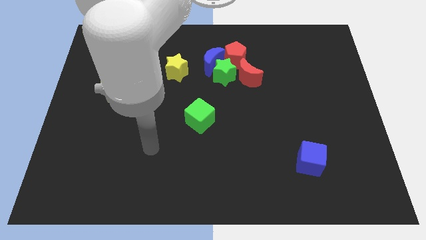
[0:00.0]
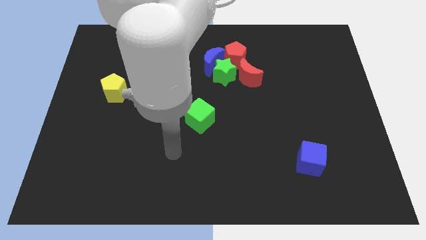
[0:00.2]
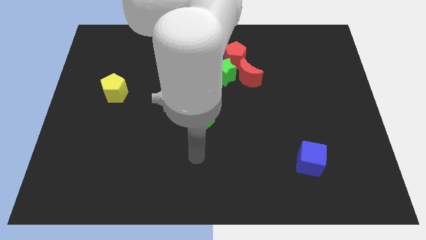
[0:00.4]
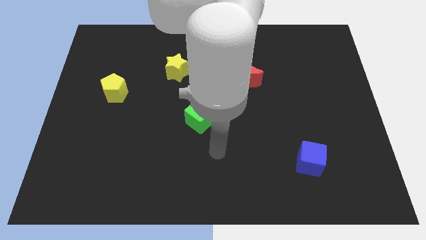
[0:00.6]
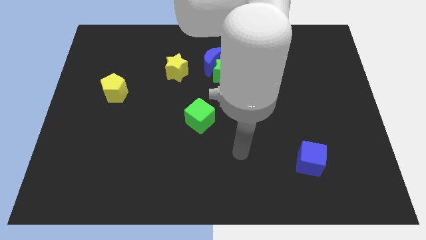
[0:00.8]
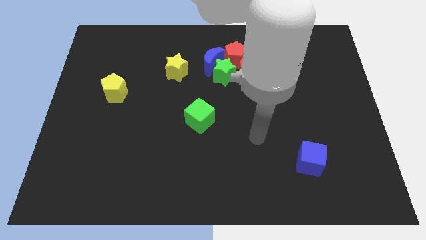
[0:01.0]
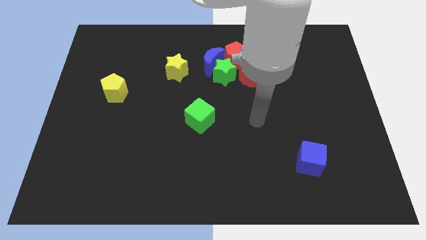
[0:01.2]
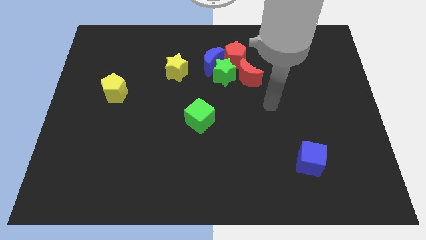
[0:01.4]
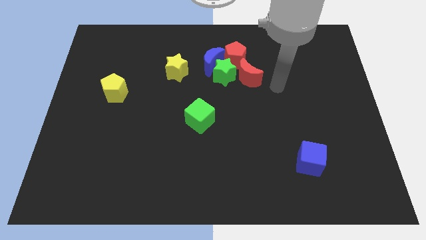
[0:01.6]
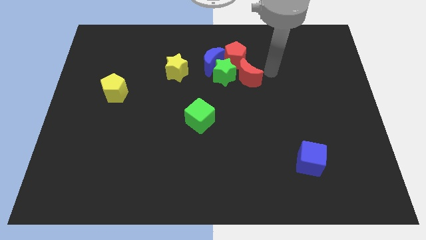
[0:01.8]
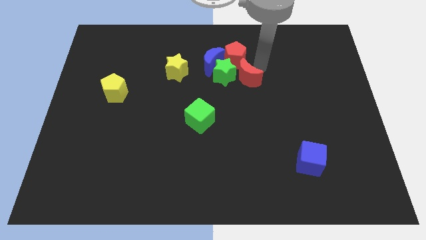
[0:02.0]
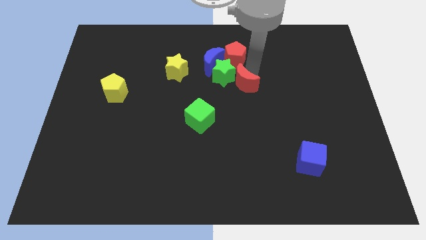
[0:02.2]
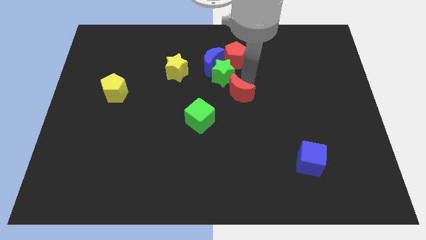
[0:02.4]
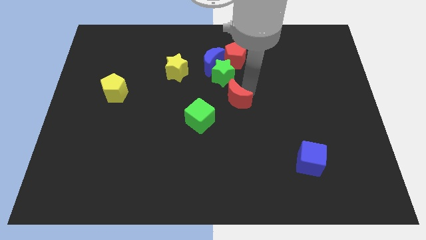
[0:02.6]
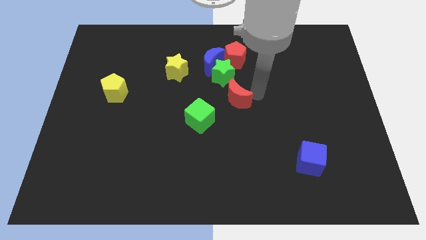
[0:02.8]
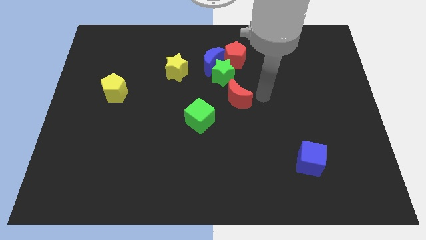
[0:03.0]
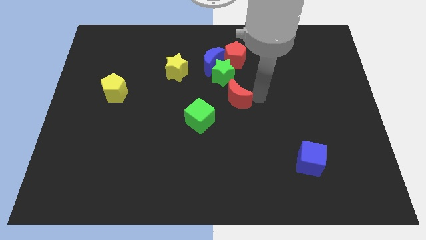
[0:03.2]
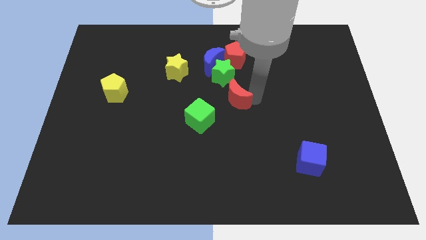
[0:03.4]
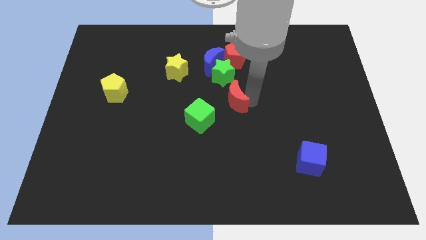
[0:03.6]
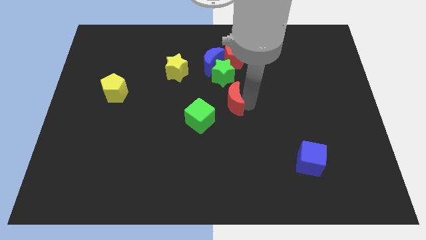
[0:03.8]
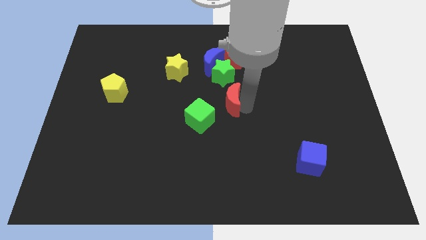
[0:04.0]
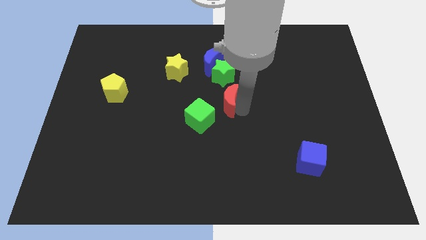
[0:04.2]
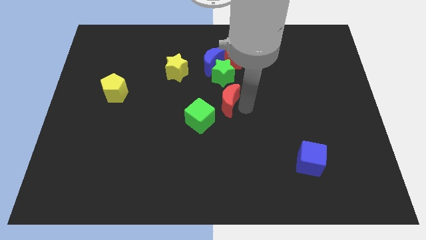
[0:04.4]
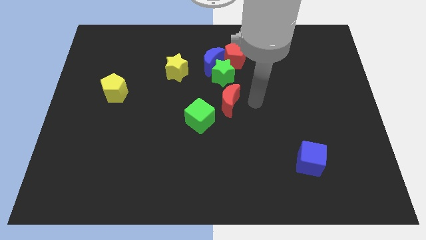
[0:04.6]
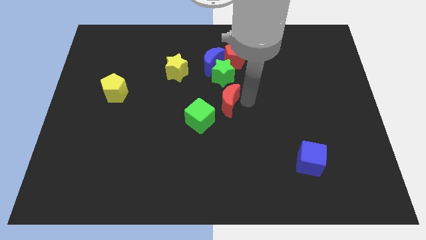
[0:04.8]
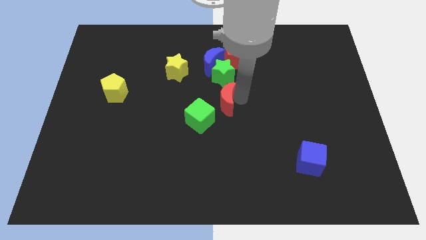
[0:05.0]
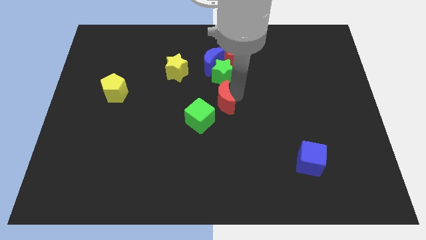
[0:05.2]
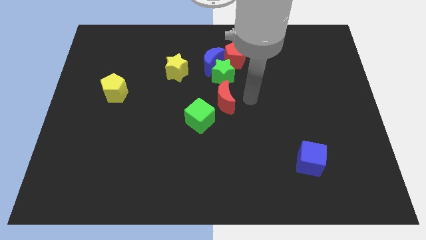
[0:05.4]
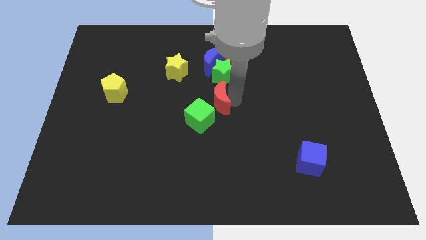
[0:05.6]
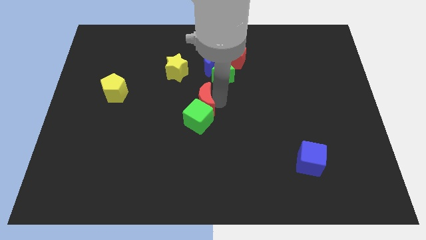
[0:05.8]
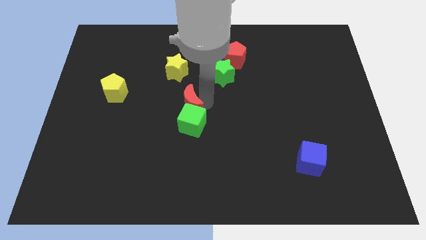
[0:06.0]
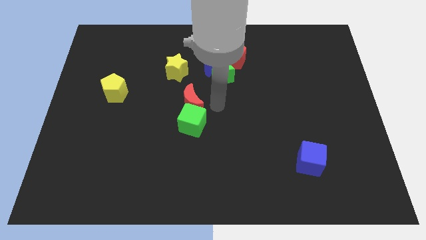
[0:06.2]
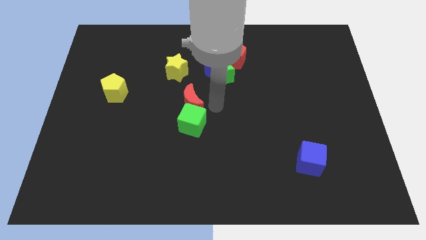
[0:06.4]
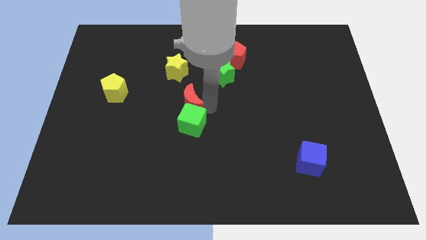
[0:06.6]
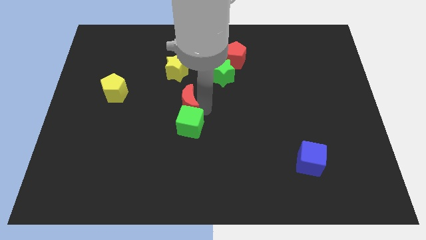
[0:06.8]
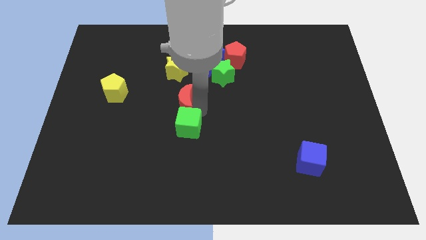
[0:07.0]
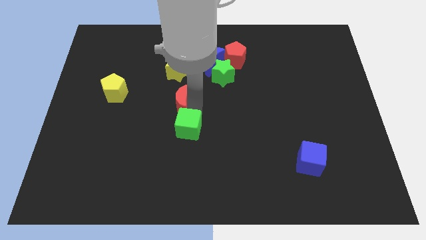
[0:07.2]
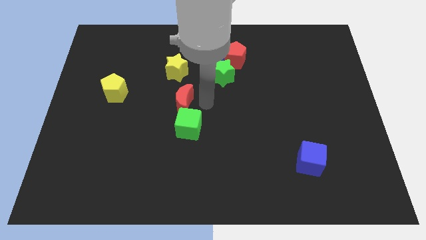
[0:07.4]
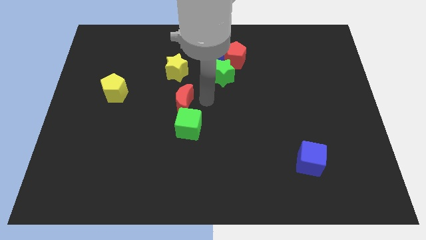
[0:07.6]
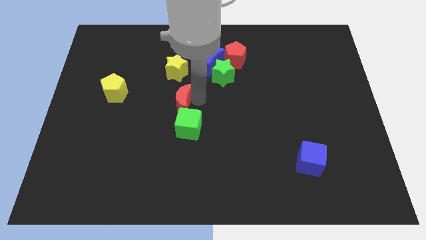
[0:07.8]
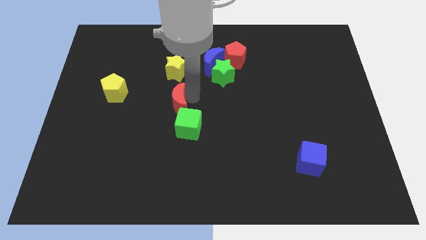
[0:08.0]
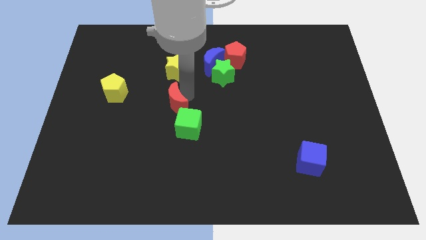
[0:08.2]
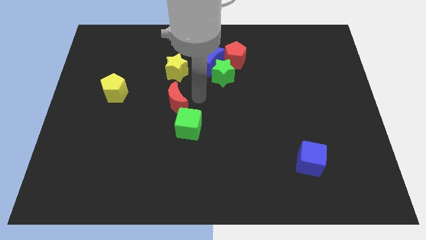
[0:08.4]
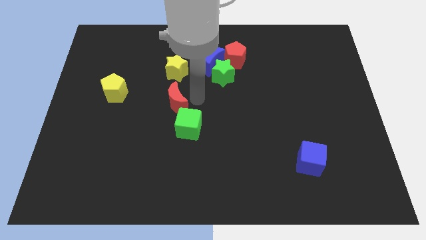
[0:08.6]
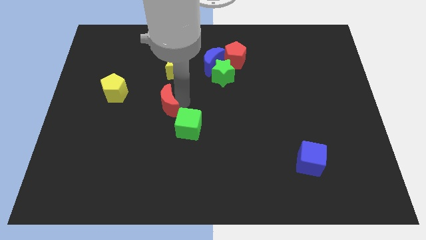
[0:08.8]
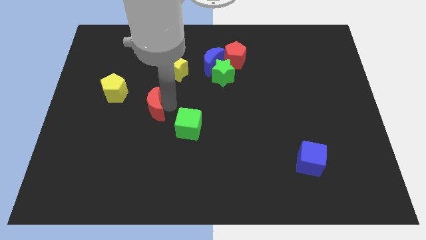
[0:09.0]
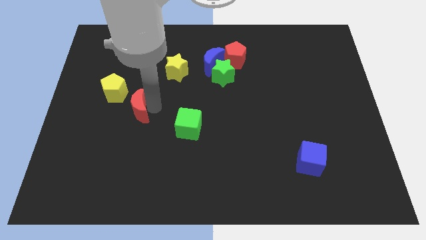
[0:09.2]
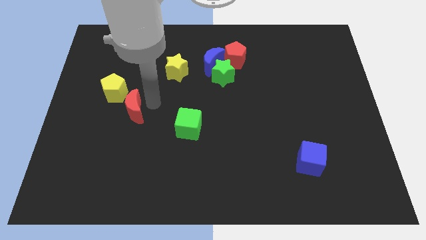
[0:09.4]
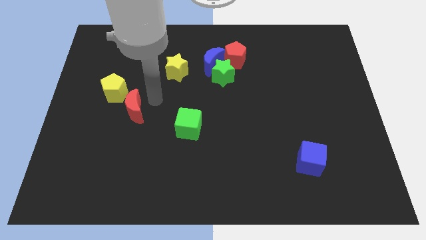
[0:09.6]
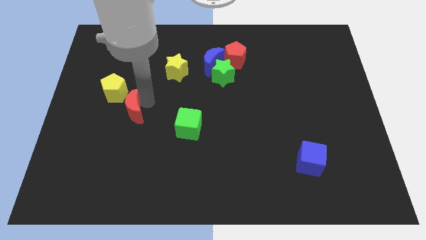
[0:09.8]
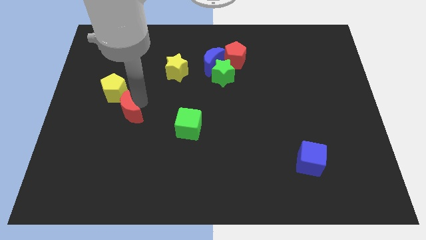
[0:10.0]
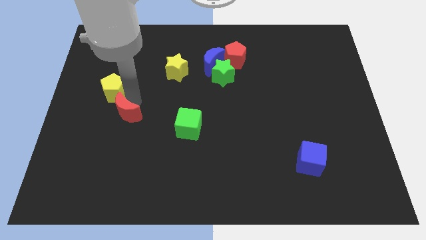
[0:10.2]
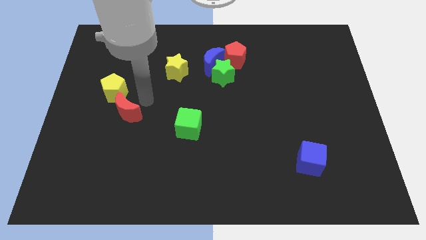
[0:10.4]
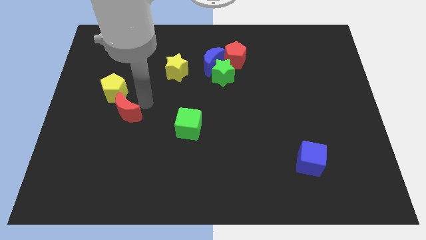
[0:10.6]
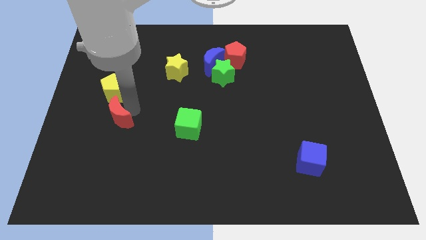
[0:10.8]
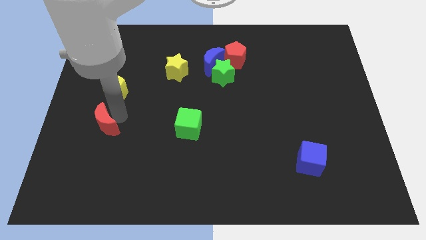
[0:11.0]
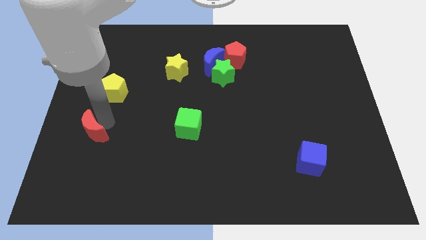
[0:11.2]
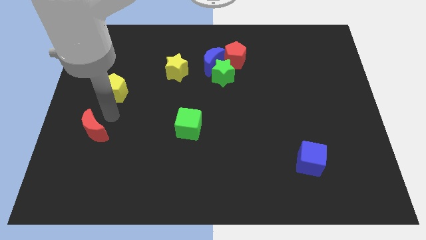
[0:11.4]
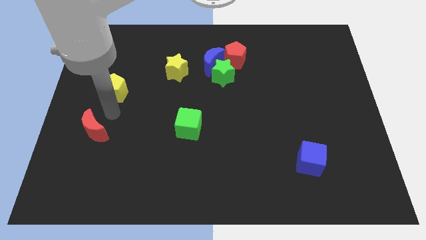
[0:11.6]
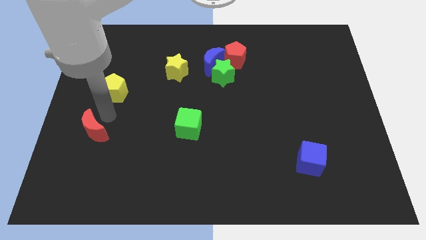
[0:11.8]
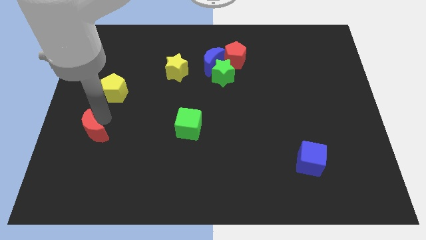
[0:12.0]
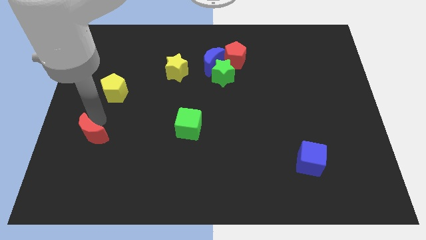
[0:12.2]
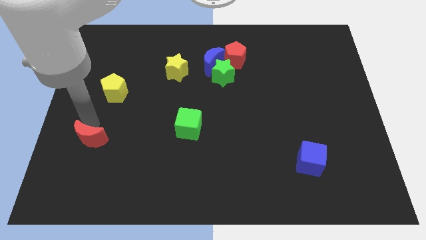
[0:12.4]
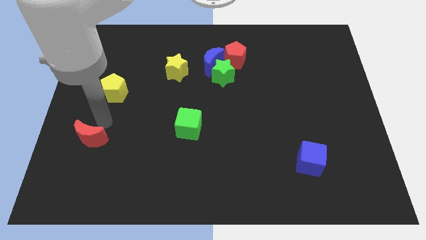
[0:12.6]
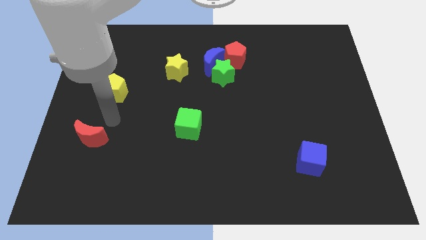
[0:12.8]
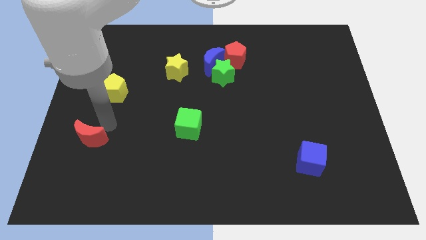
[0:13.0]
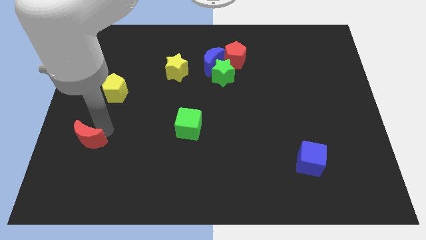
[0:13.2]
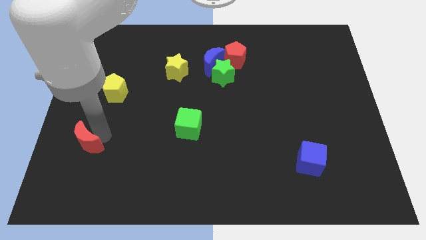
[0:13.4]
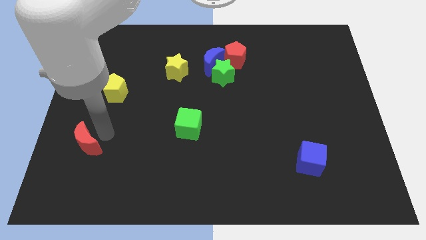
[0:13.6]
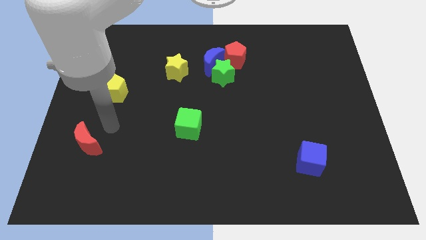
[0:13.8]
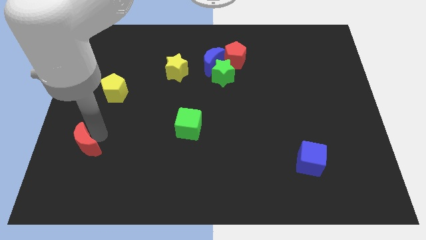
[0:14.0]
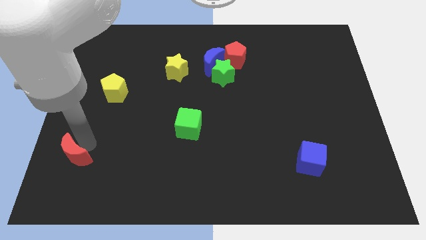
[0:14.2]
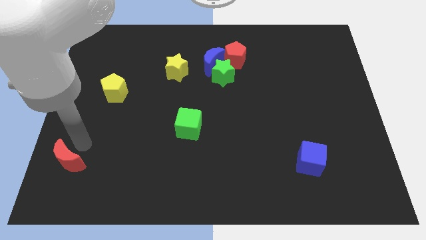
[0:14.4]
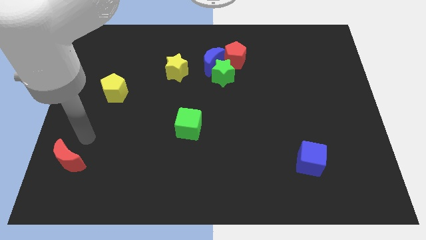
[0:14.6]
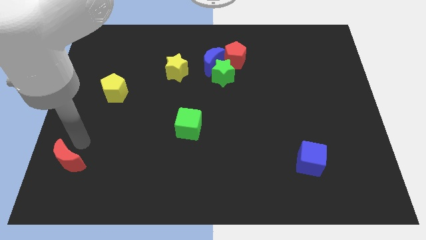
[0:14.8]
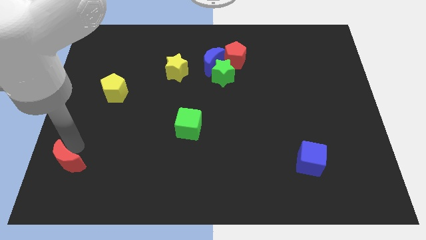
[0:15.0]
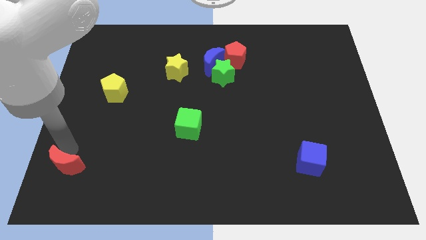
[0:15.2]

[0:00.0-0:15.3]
push the red moon to the bottom left corner
